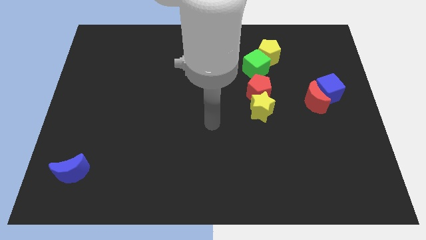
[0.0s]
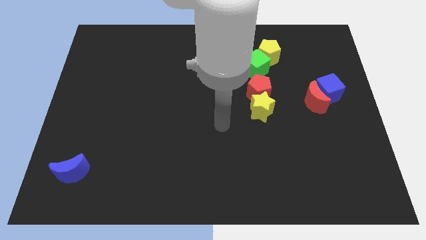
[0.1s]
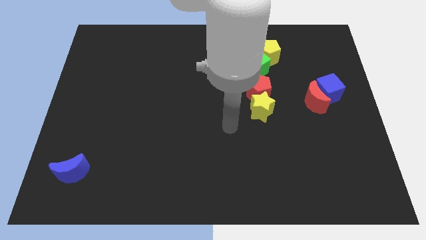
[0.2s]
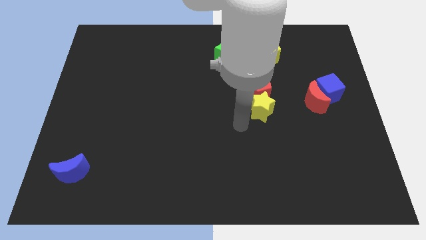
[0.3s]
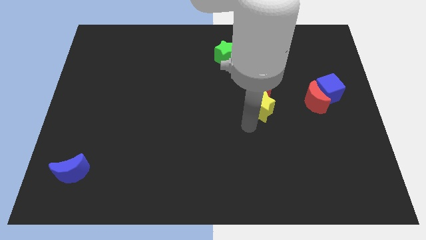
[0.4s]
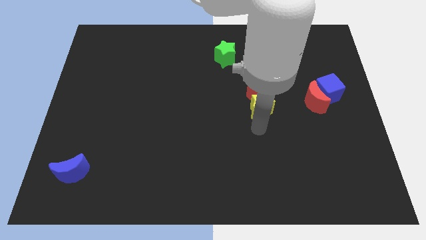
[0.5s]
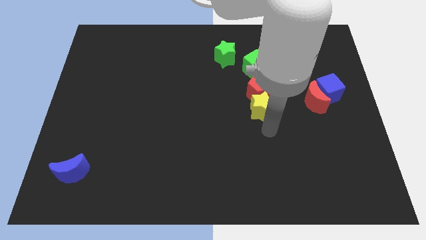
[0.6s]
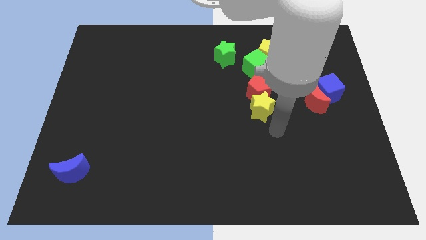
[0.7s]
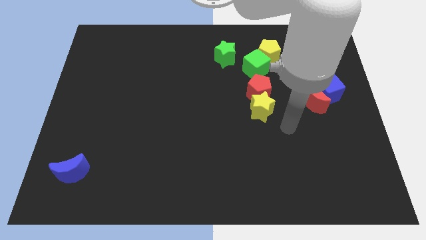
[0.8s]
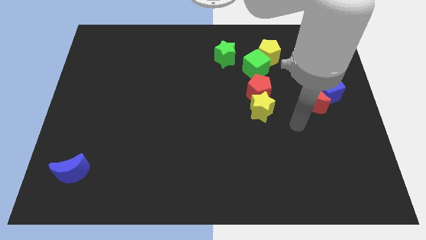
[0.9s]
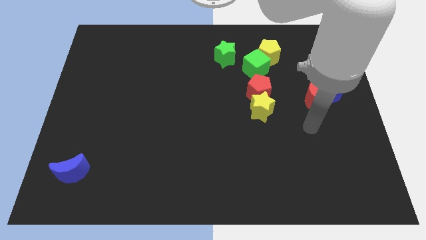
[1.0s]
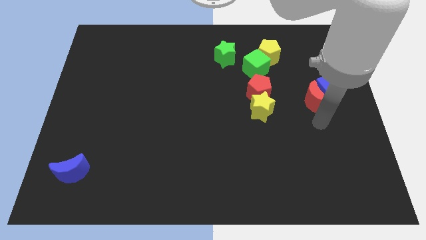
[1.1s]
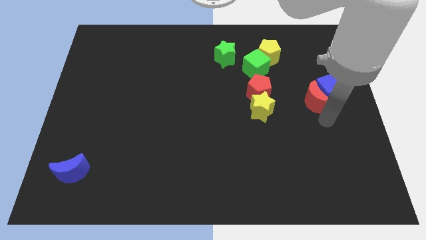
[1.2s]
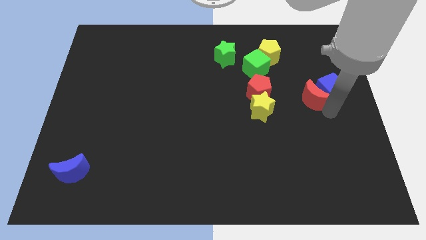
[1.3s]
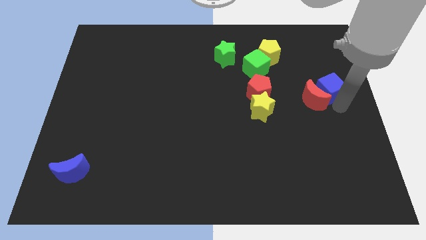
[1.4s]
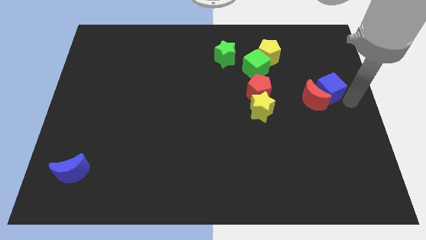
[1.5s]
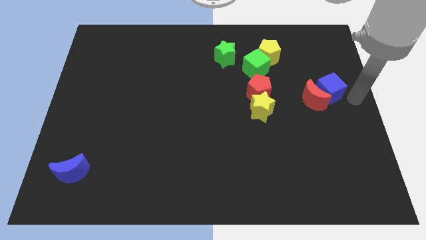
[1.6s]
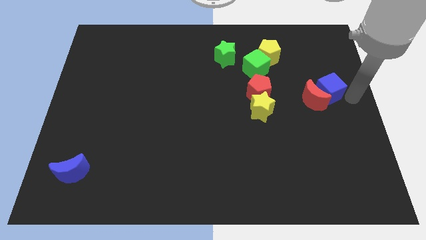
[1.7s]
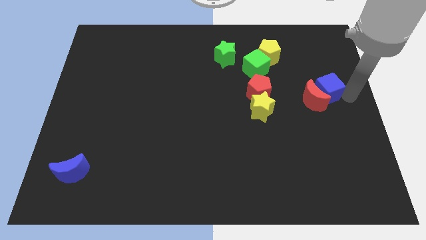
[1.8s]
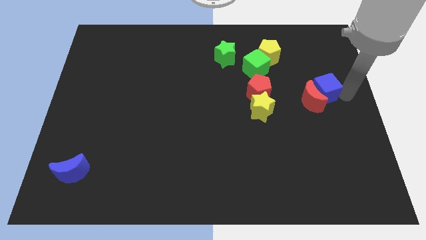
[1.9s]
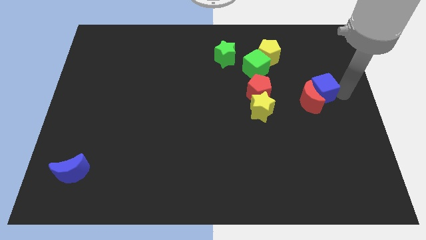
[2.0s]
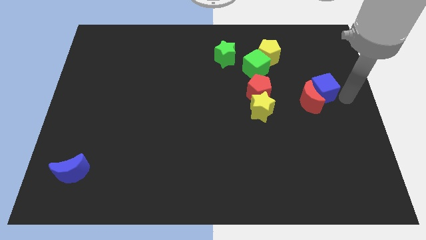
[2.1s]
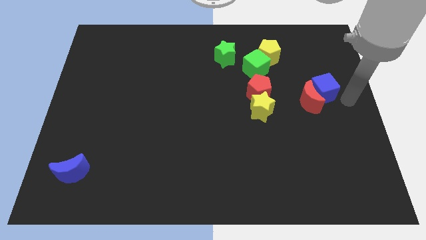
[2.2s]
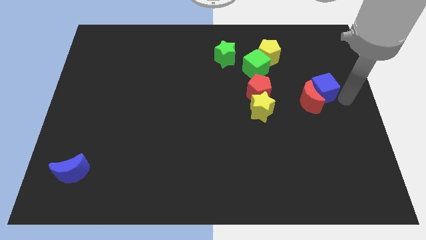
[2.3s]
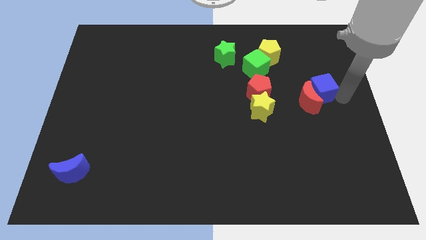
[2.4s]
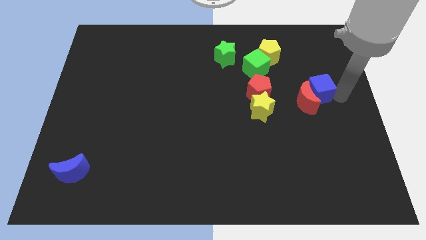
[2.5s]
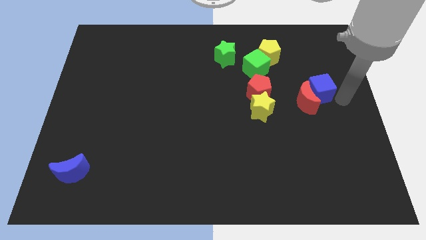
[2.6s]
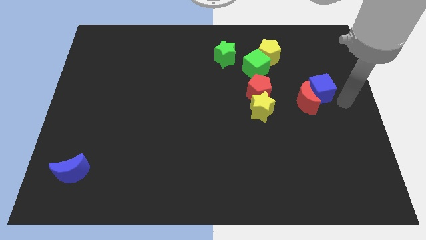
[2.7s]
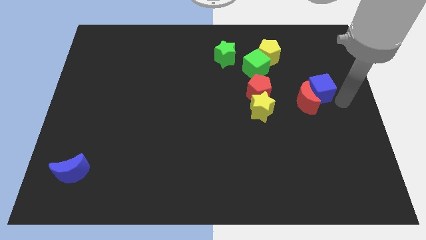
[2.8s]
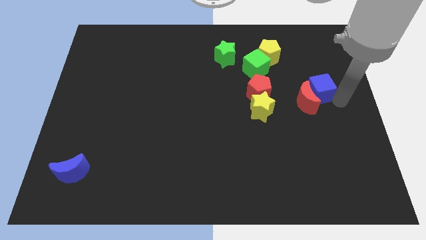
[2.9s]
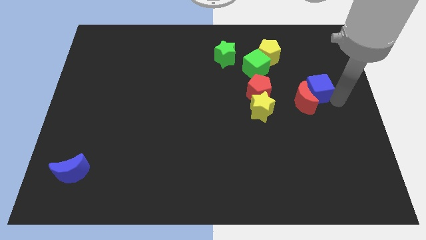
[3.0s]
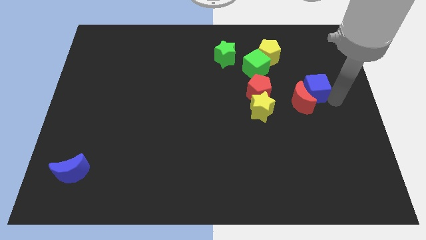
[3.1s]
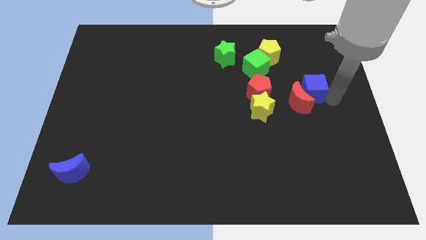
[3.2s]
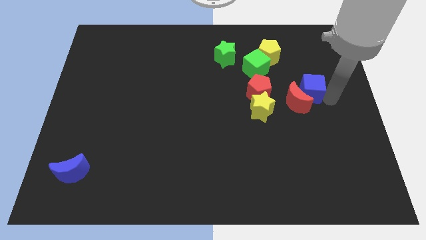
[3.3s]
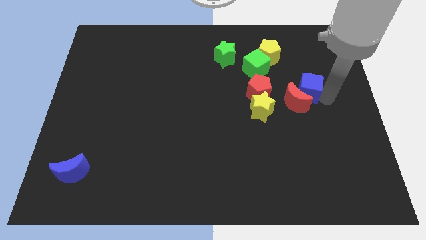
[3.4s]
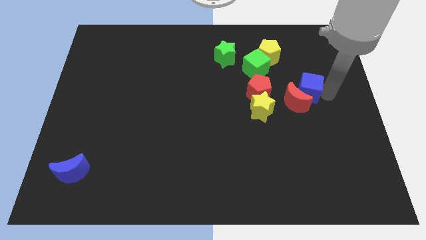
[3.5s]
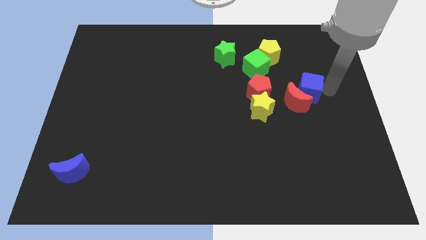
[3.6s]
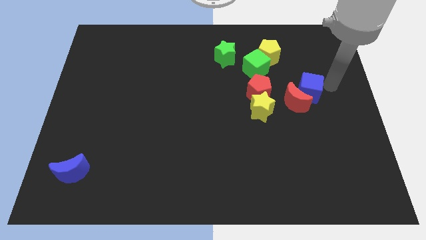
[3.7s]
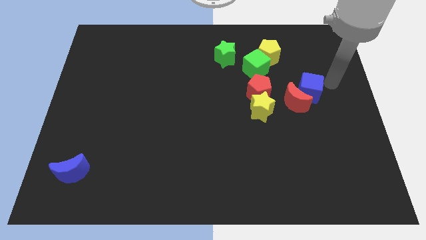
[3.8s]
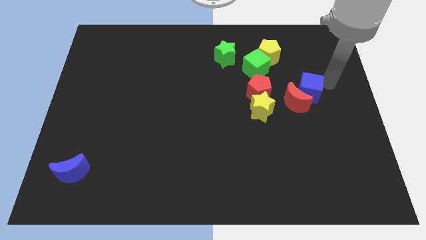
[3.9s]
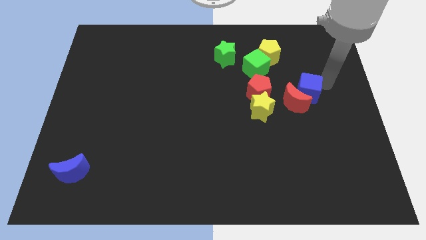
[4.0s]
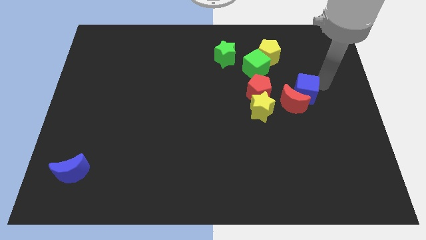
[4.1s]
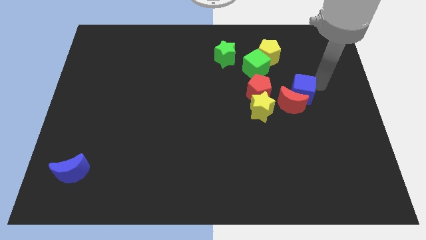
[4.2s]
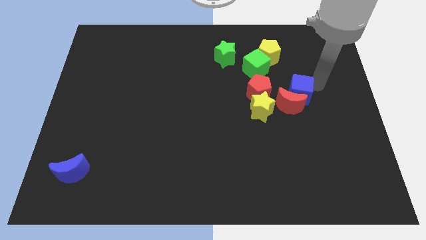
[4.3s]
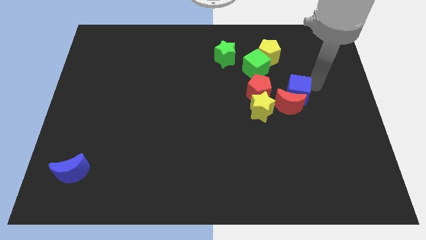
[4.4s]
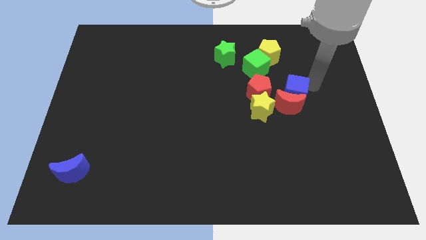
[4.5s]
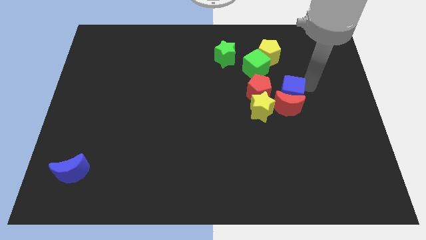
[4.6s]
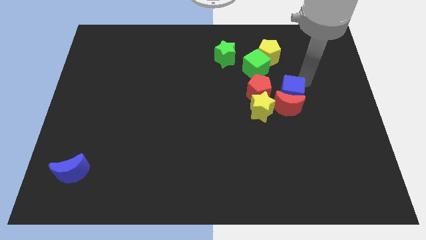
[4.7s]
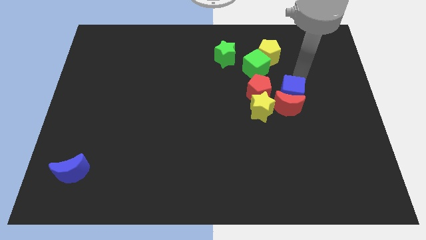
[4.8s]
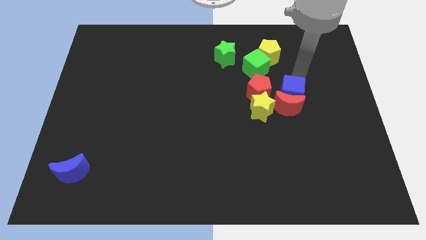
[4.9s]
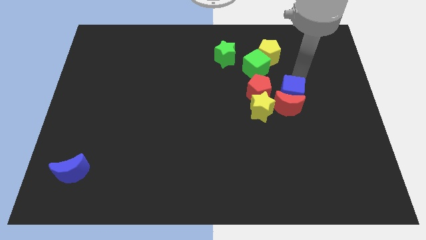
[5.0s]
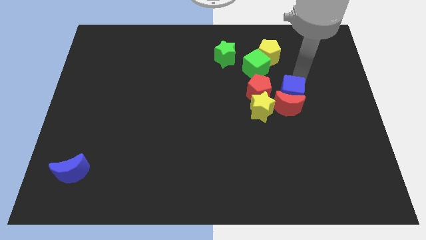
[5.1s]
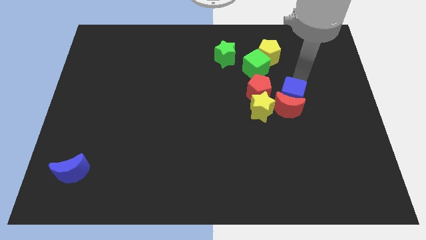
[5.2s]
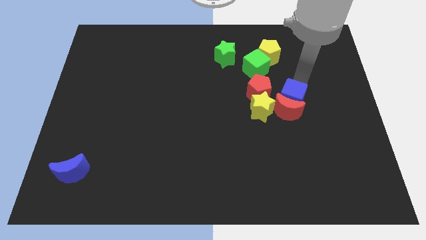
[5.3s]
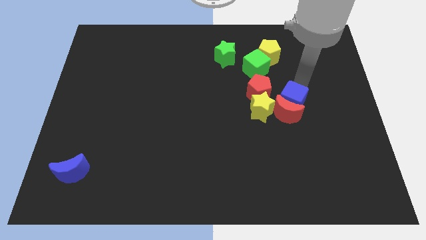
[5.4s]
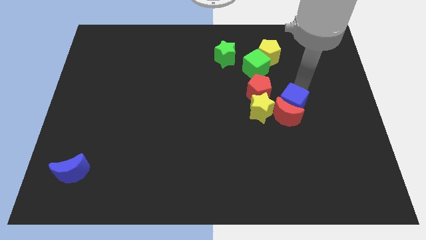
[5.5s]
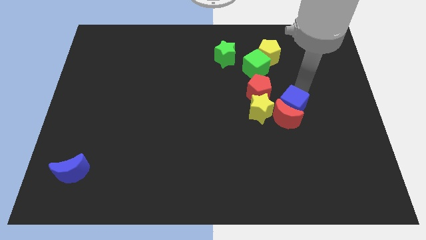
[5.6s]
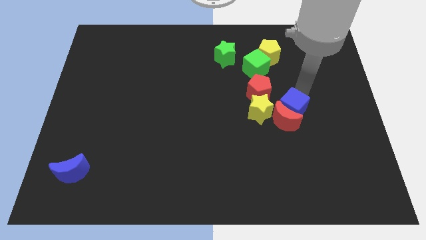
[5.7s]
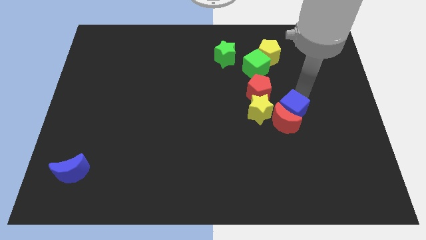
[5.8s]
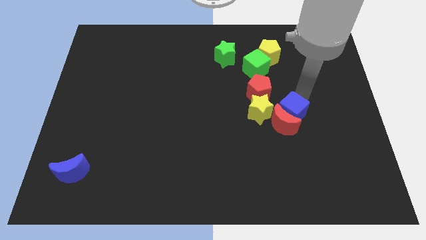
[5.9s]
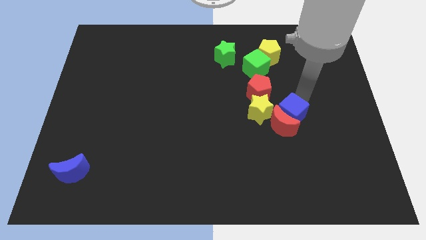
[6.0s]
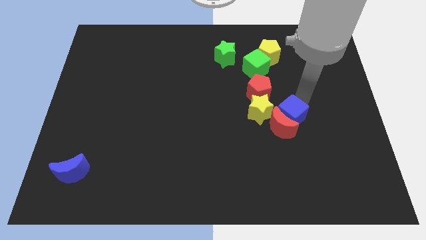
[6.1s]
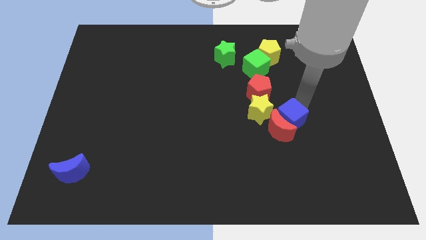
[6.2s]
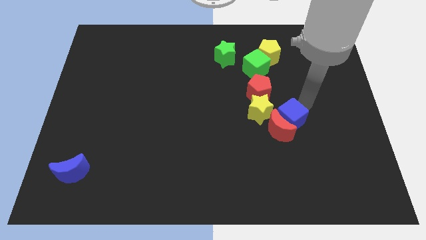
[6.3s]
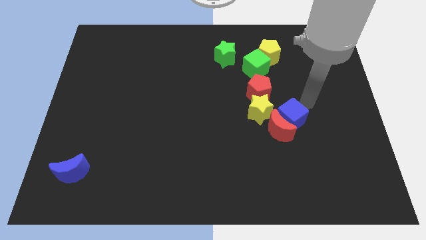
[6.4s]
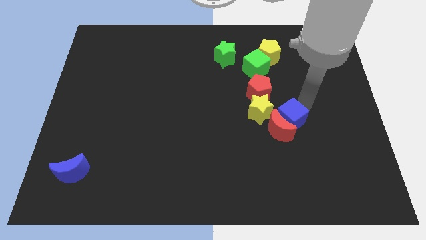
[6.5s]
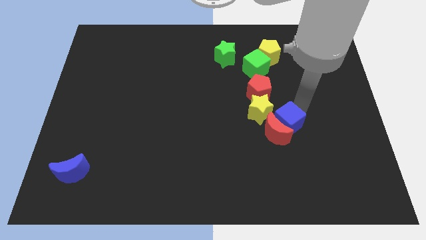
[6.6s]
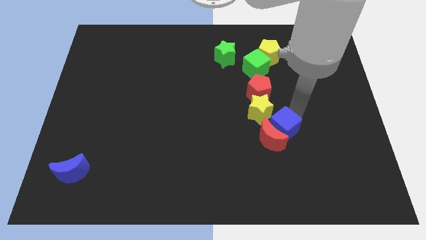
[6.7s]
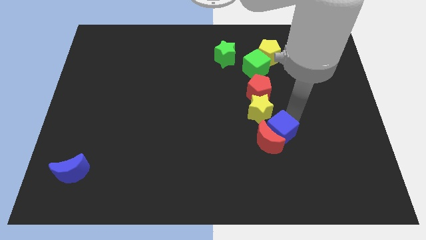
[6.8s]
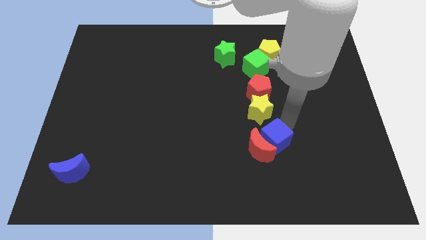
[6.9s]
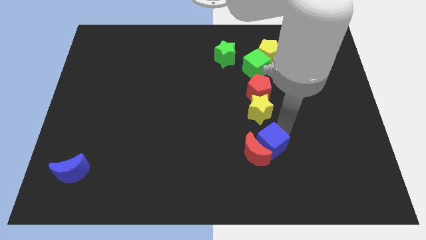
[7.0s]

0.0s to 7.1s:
push the blue cube downwards and left

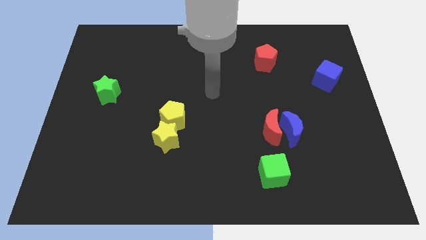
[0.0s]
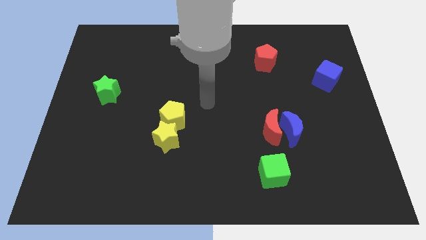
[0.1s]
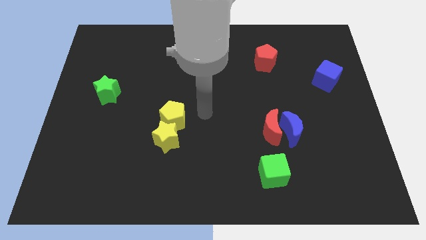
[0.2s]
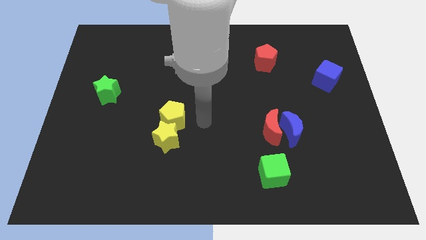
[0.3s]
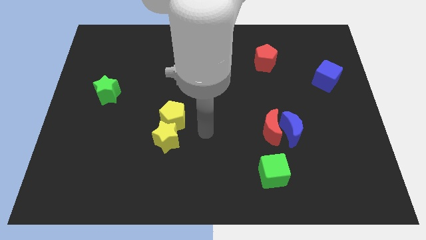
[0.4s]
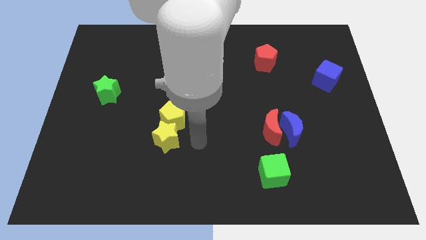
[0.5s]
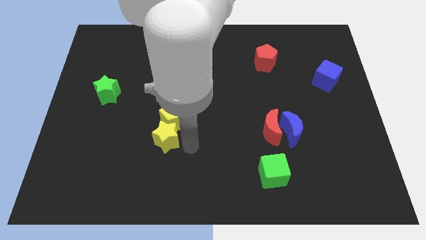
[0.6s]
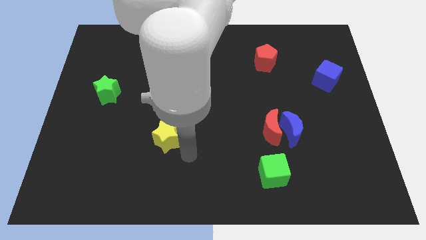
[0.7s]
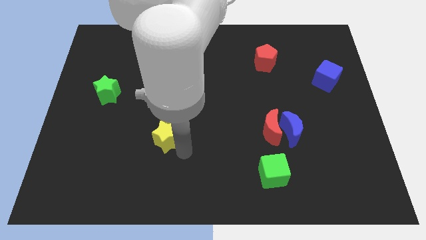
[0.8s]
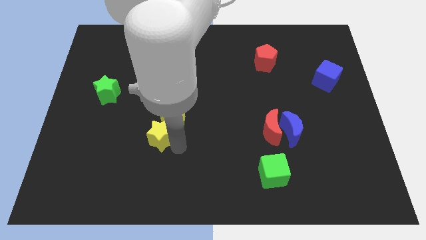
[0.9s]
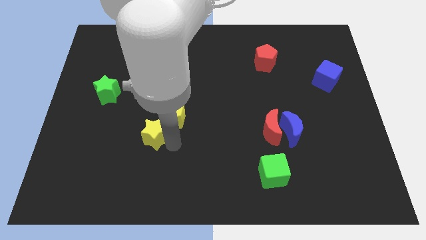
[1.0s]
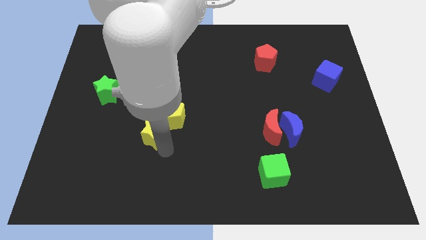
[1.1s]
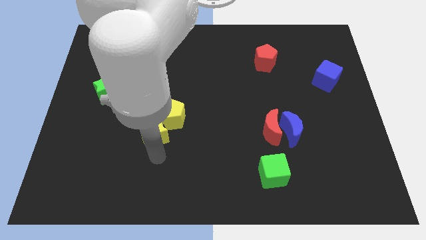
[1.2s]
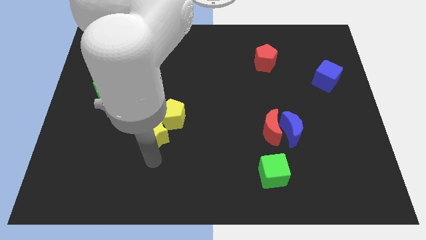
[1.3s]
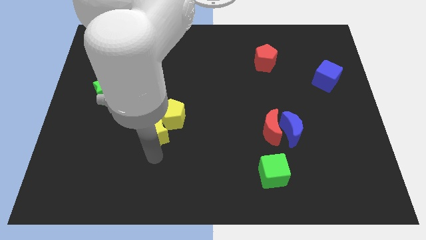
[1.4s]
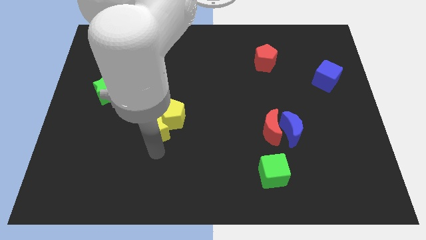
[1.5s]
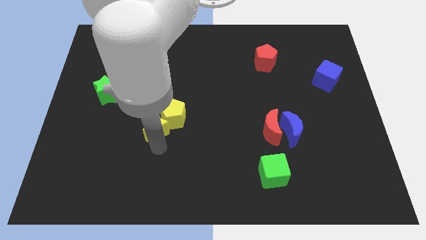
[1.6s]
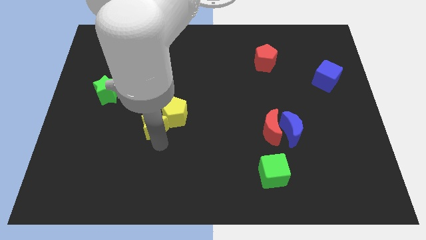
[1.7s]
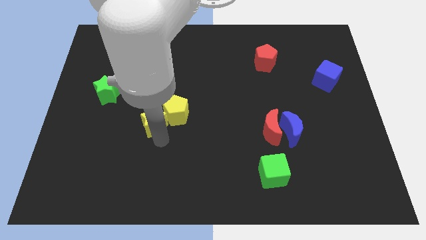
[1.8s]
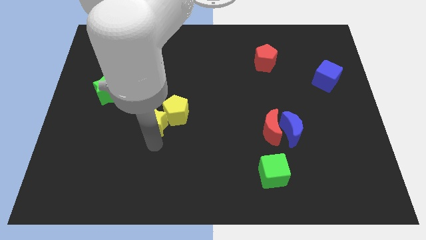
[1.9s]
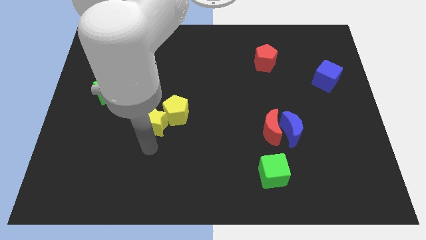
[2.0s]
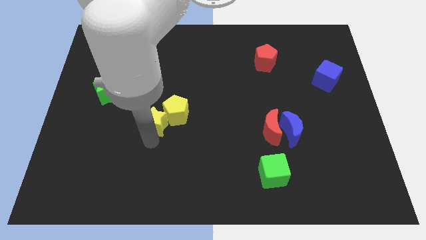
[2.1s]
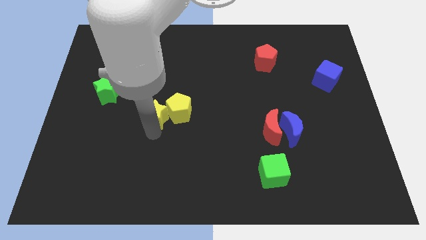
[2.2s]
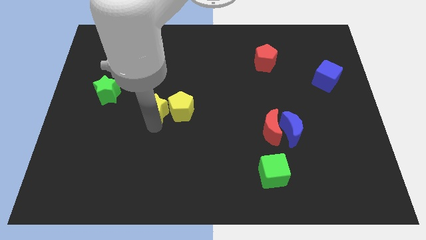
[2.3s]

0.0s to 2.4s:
move the yellow star up a bit
